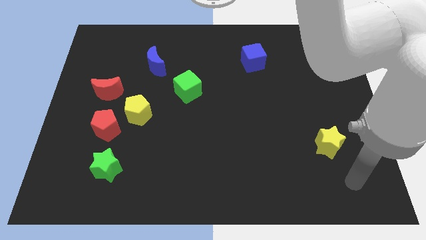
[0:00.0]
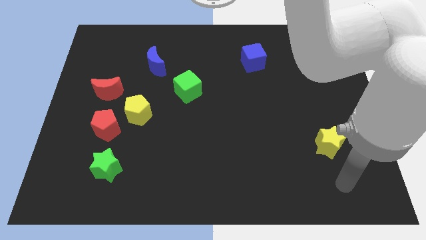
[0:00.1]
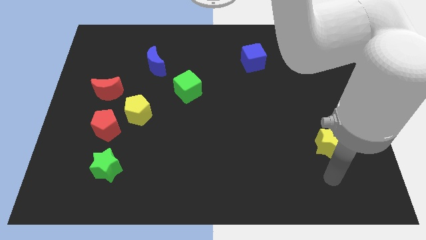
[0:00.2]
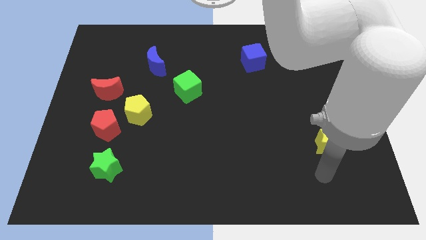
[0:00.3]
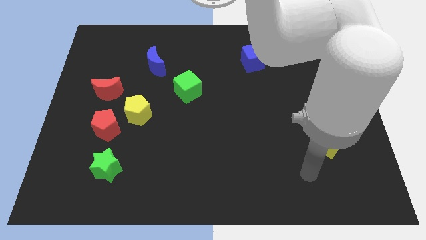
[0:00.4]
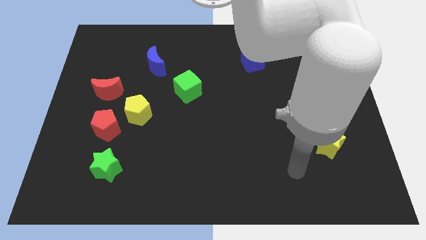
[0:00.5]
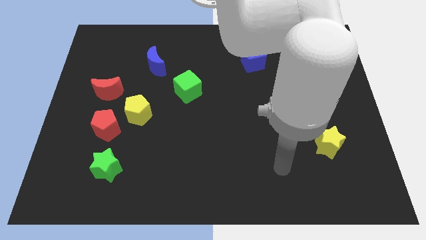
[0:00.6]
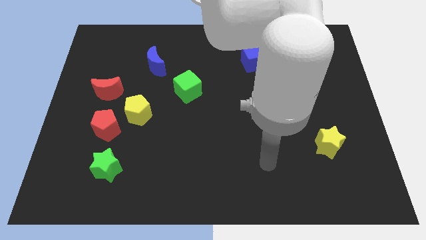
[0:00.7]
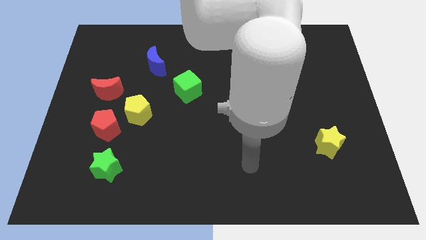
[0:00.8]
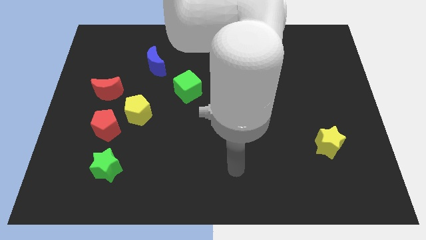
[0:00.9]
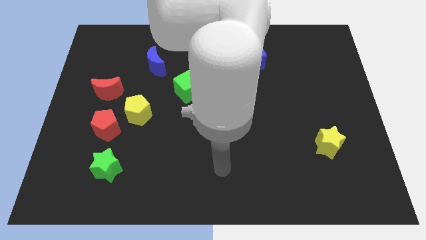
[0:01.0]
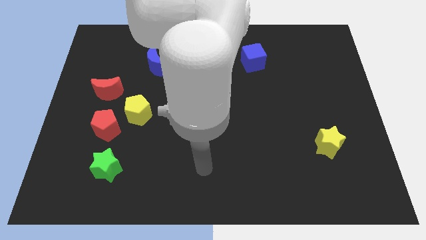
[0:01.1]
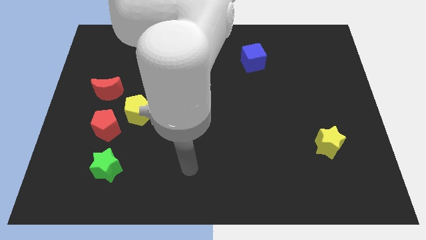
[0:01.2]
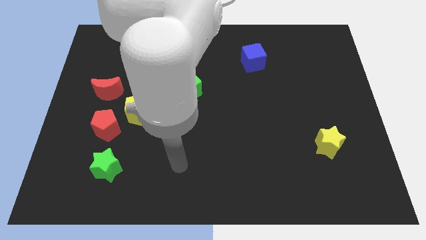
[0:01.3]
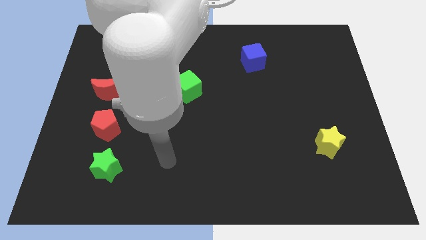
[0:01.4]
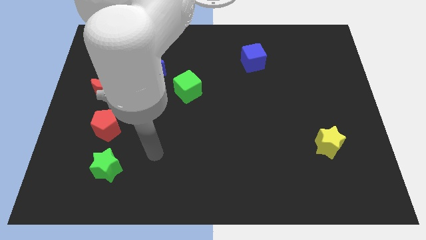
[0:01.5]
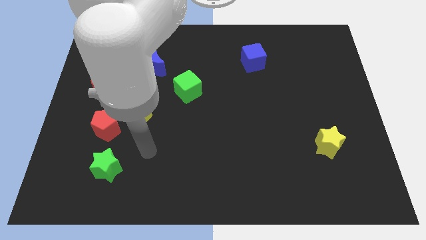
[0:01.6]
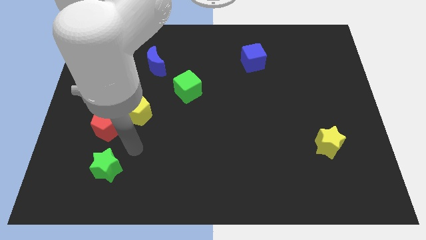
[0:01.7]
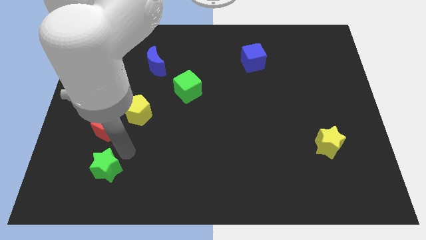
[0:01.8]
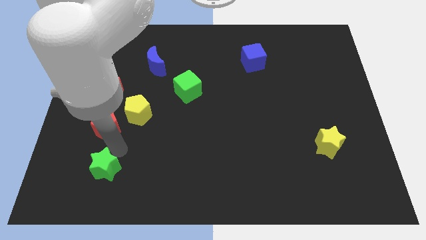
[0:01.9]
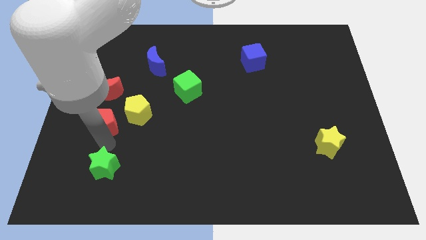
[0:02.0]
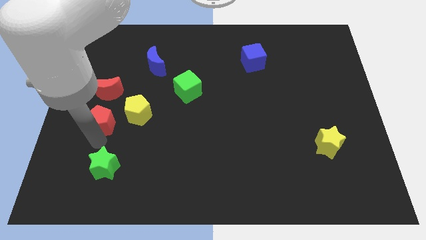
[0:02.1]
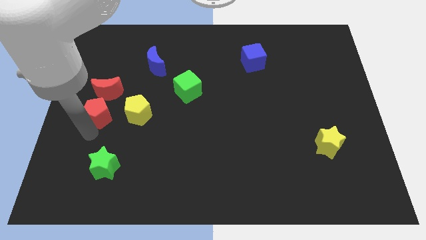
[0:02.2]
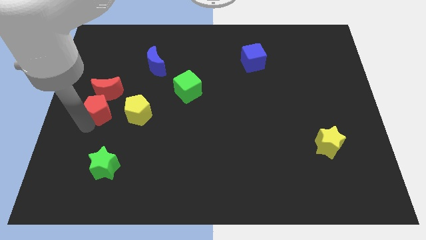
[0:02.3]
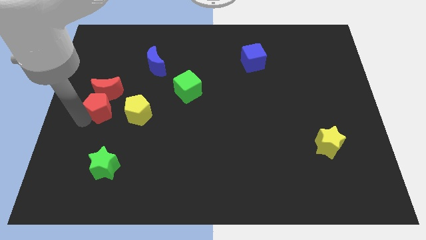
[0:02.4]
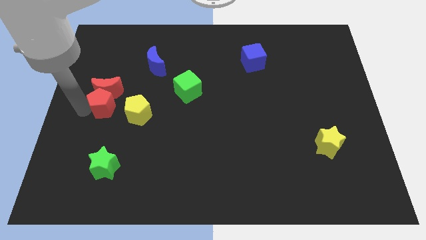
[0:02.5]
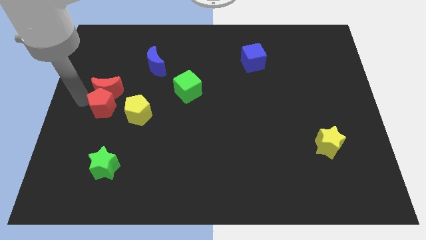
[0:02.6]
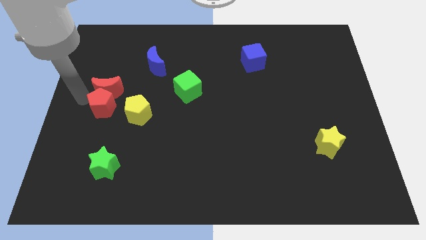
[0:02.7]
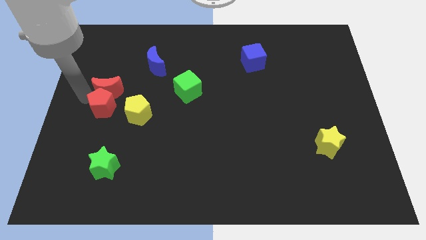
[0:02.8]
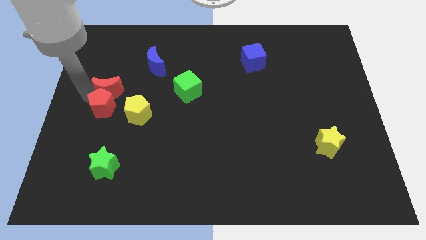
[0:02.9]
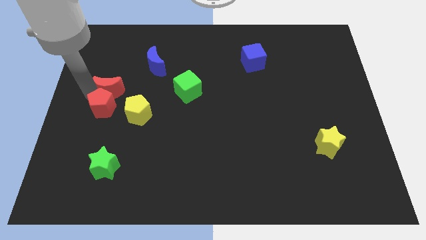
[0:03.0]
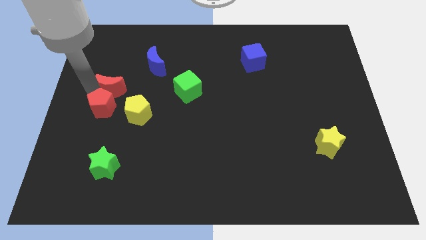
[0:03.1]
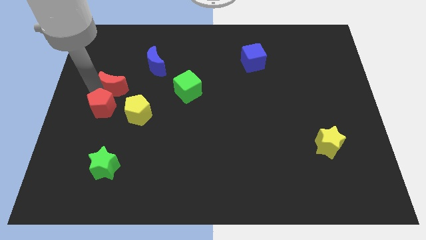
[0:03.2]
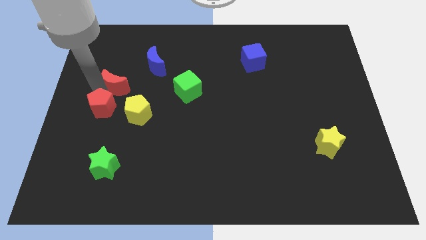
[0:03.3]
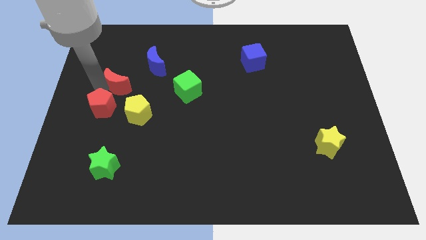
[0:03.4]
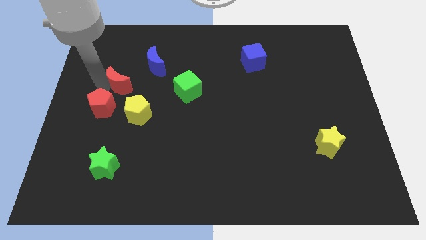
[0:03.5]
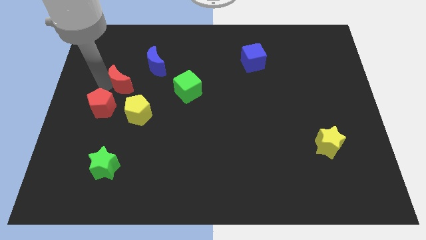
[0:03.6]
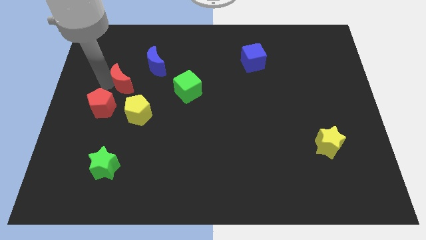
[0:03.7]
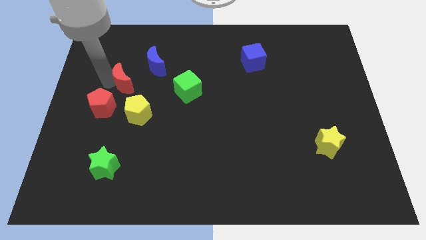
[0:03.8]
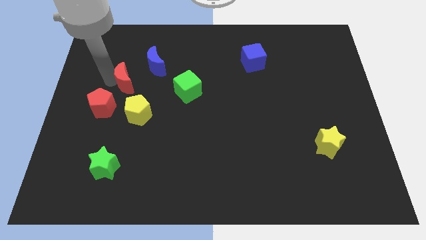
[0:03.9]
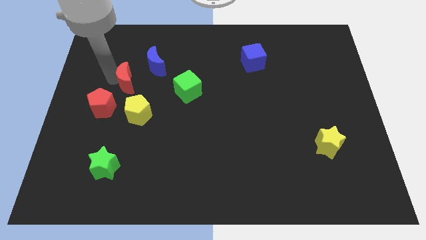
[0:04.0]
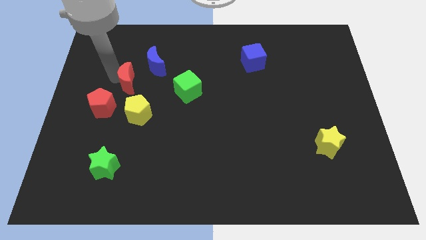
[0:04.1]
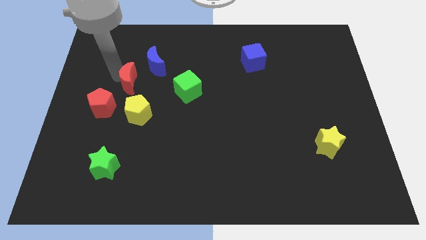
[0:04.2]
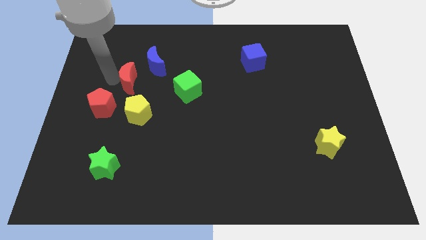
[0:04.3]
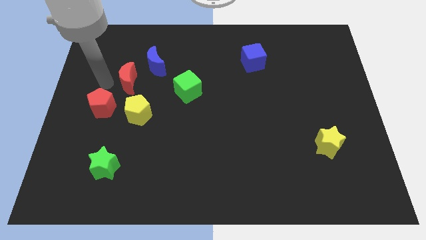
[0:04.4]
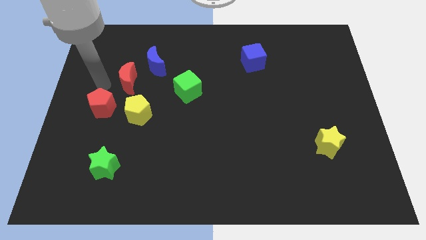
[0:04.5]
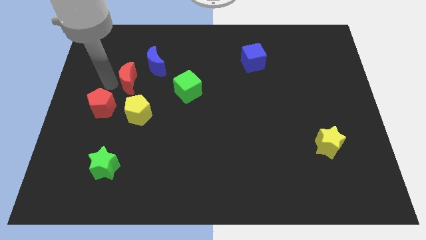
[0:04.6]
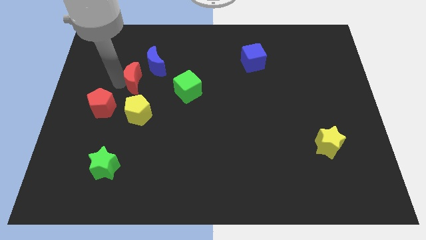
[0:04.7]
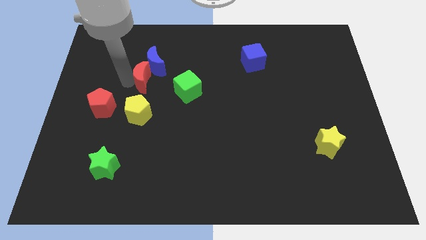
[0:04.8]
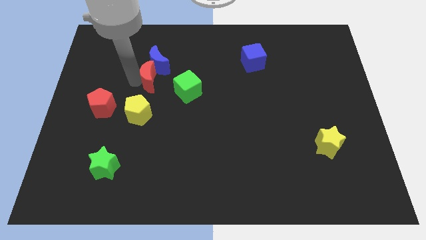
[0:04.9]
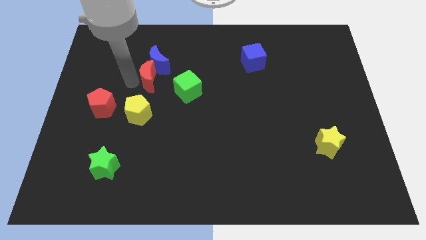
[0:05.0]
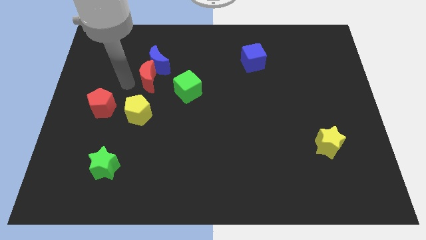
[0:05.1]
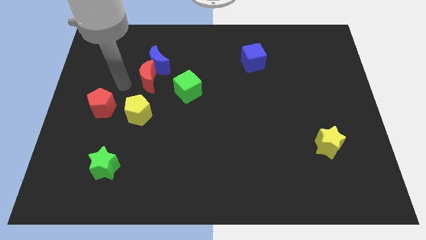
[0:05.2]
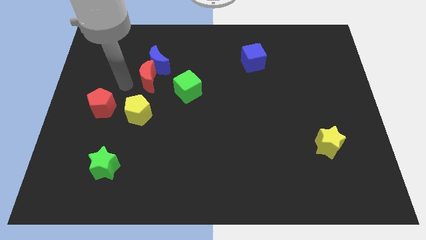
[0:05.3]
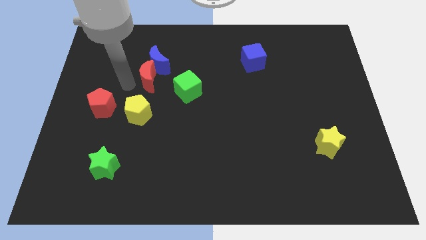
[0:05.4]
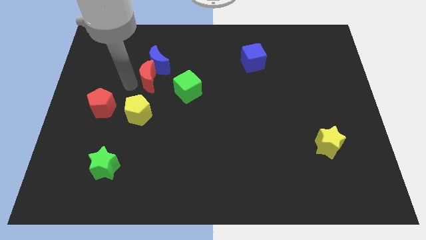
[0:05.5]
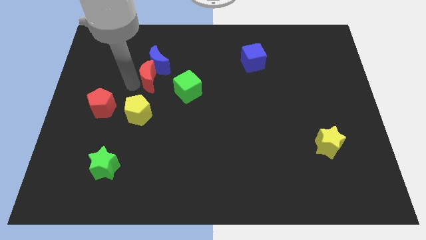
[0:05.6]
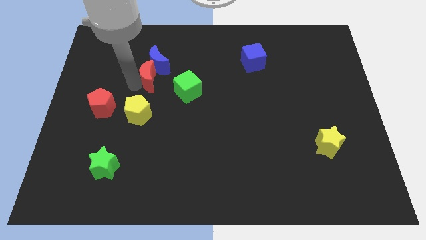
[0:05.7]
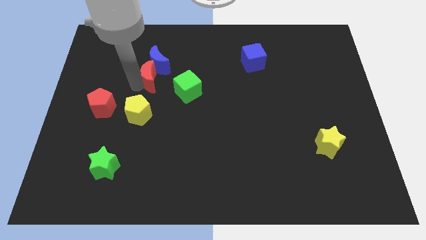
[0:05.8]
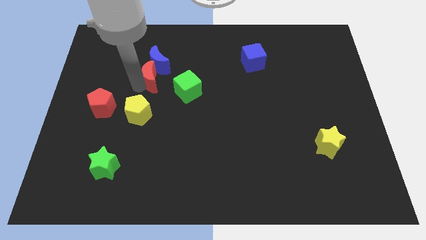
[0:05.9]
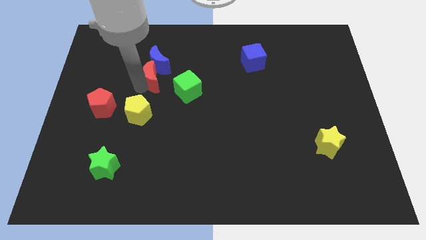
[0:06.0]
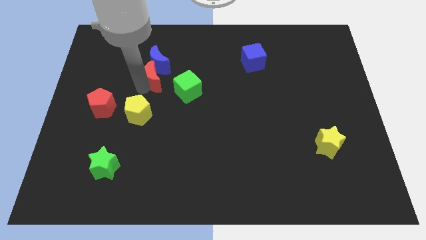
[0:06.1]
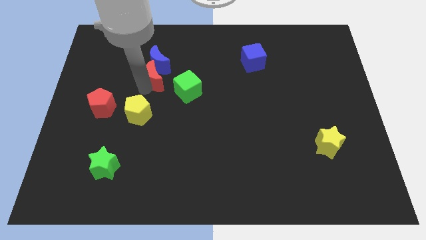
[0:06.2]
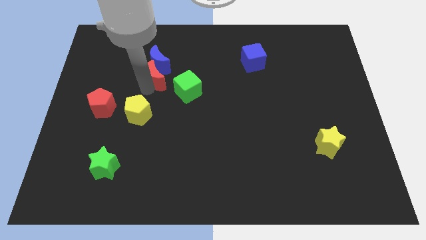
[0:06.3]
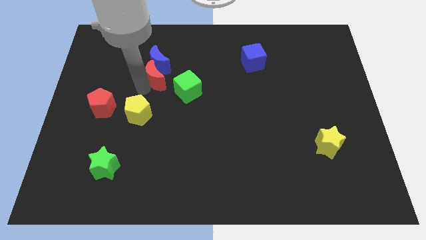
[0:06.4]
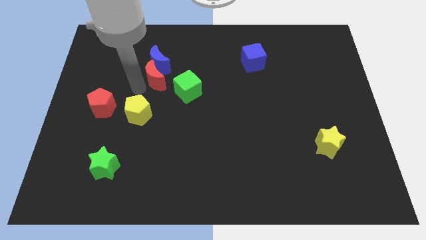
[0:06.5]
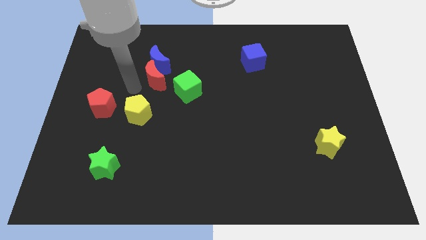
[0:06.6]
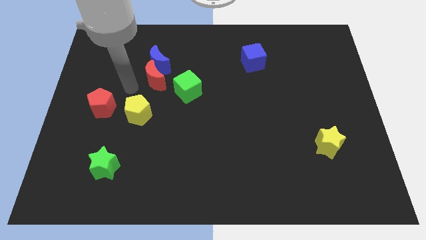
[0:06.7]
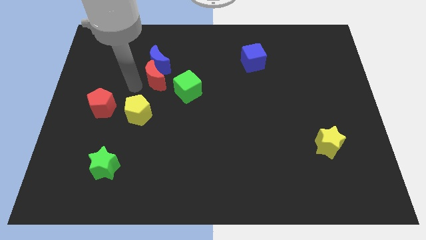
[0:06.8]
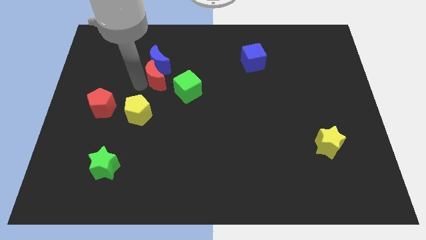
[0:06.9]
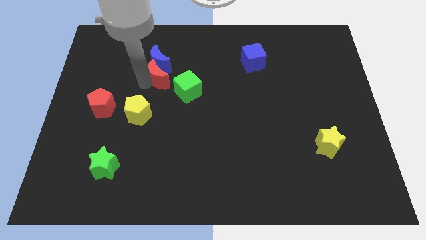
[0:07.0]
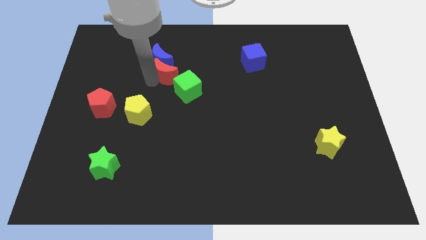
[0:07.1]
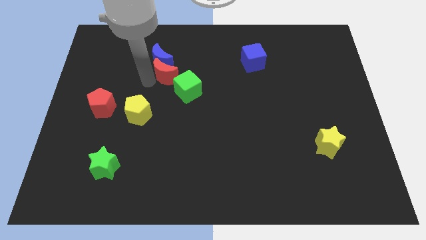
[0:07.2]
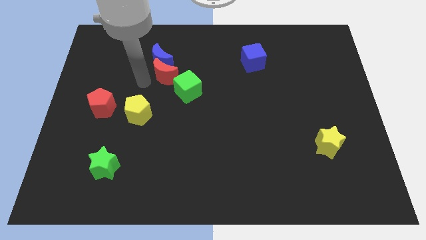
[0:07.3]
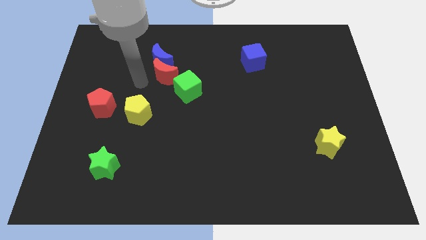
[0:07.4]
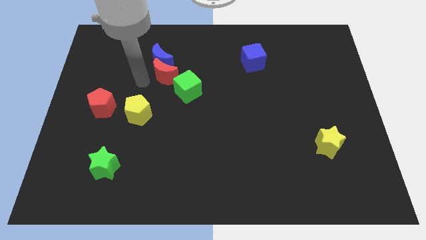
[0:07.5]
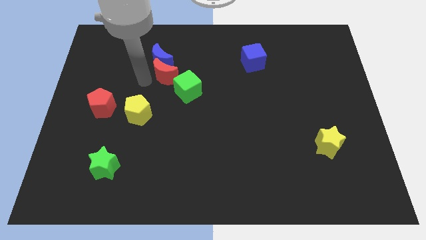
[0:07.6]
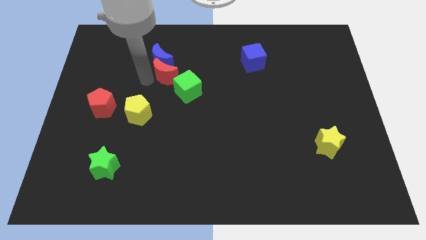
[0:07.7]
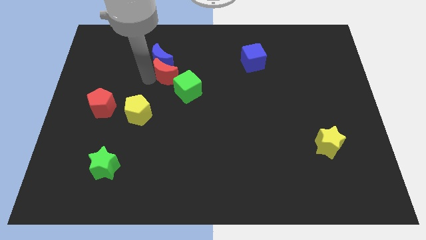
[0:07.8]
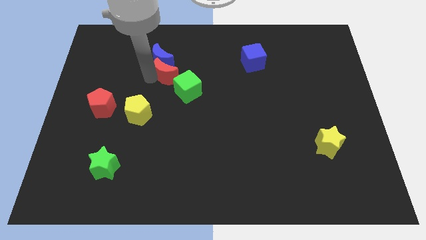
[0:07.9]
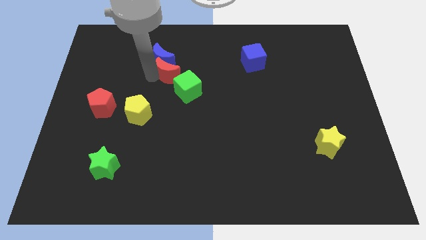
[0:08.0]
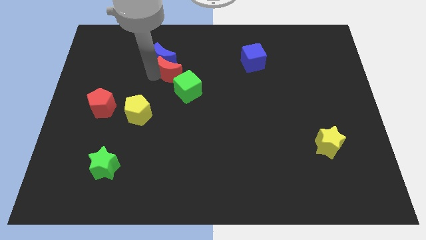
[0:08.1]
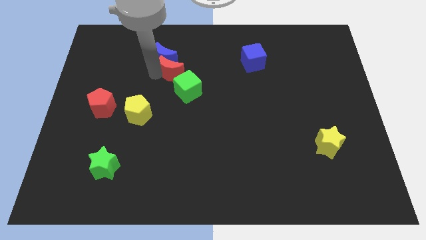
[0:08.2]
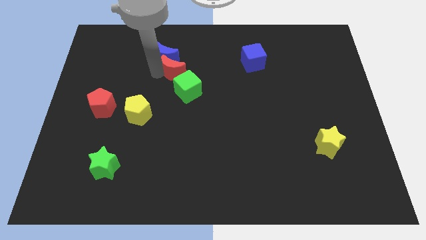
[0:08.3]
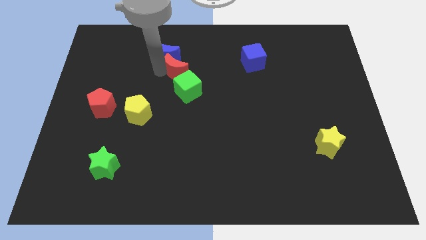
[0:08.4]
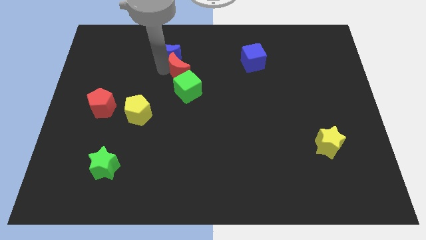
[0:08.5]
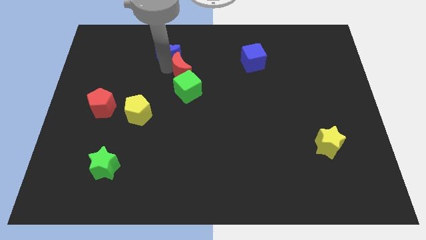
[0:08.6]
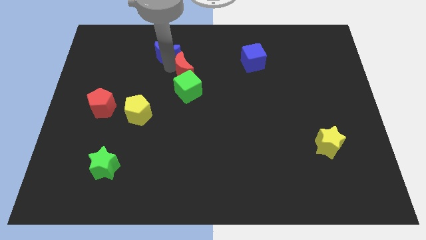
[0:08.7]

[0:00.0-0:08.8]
push the red moon to the right of the blue moon
